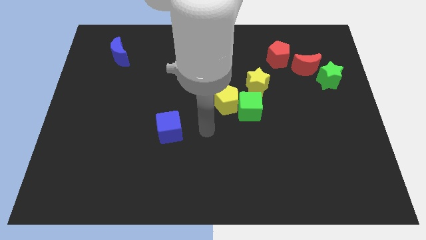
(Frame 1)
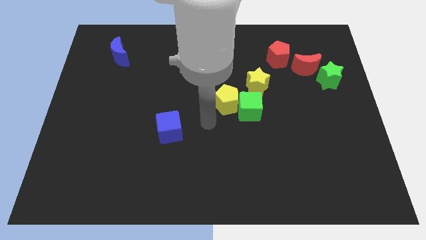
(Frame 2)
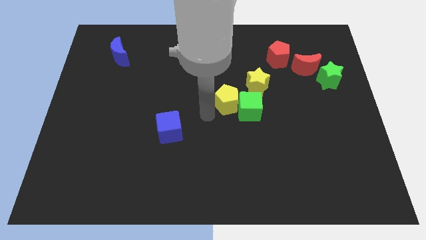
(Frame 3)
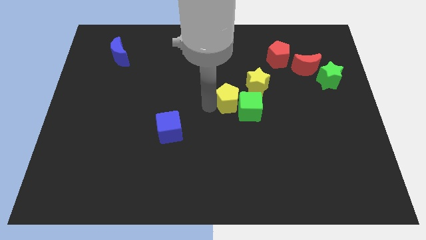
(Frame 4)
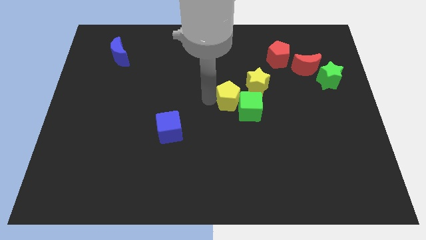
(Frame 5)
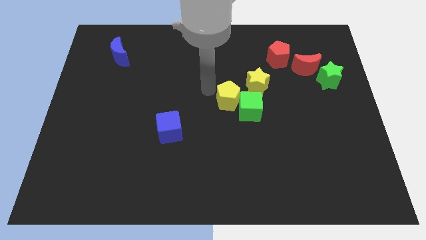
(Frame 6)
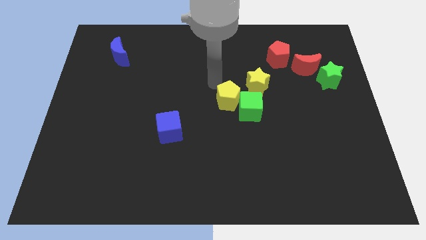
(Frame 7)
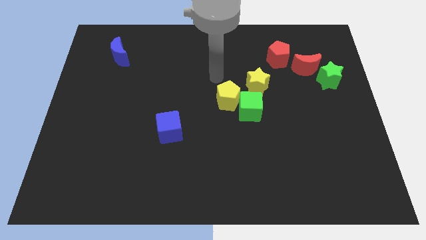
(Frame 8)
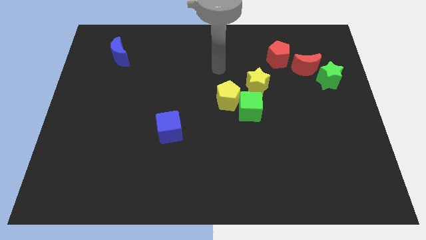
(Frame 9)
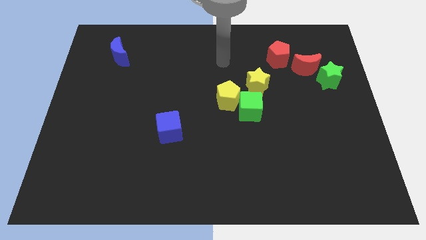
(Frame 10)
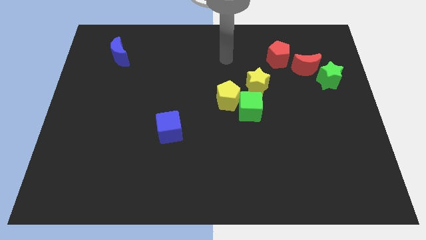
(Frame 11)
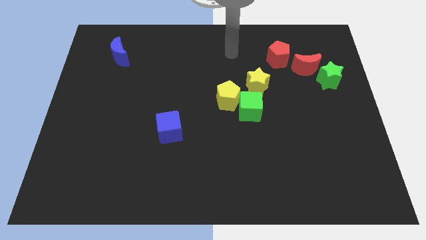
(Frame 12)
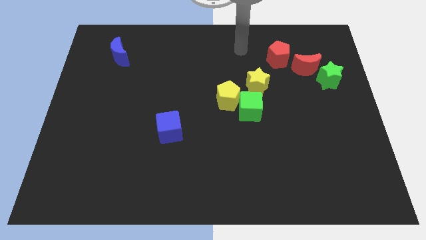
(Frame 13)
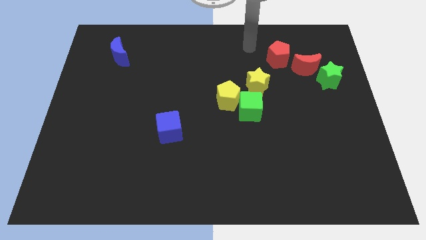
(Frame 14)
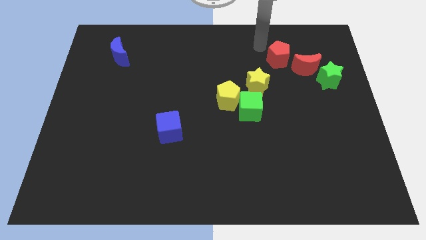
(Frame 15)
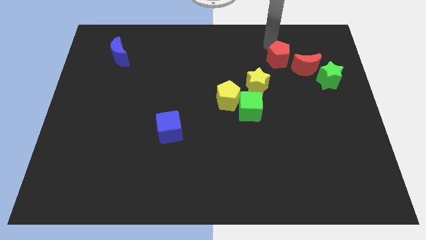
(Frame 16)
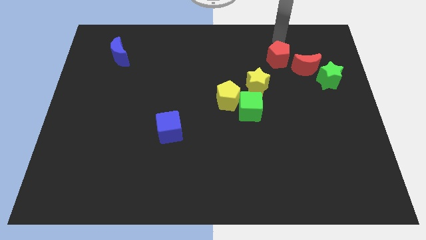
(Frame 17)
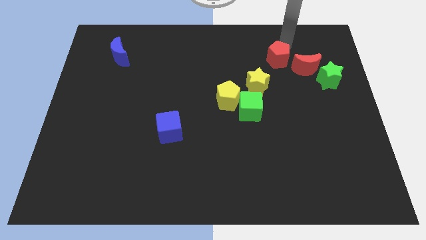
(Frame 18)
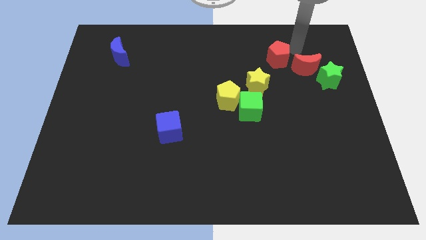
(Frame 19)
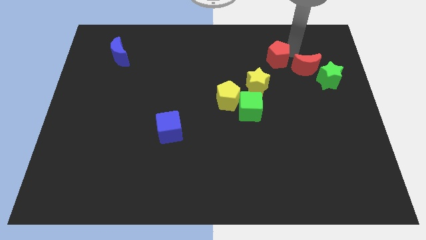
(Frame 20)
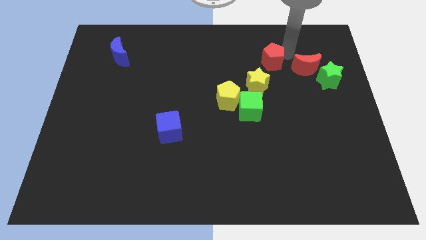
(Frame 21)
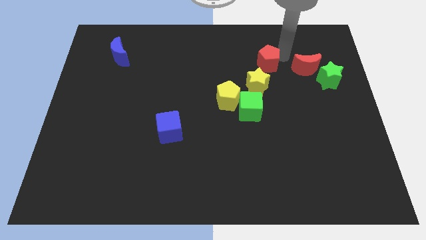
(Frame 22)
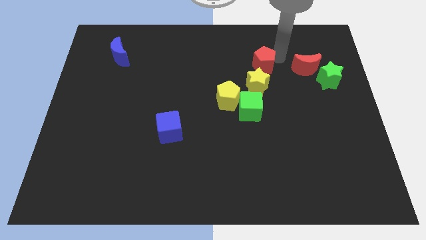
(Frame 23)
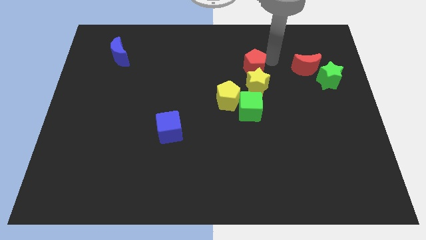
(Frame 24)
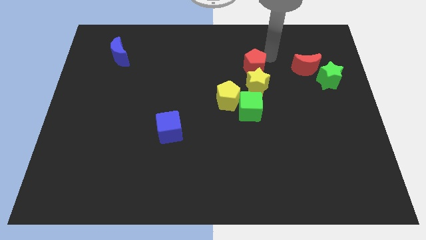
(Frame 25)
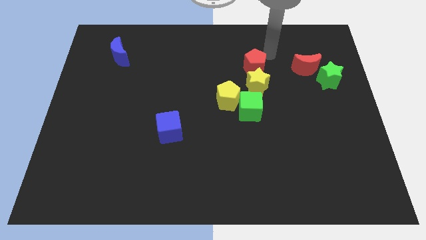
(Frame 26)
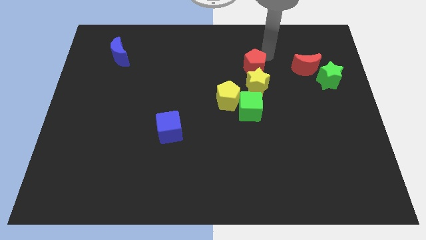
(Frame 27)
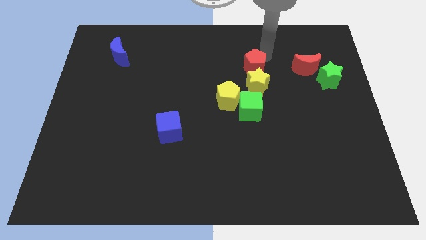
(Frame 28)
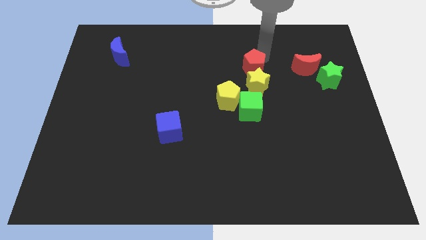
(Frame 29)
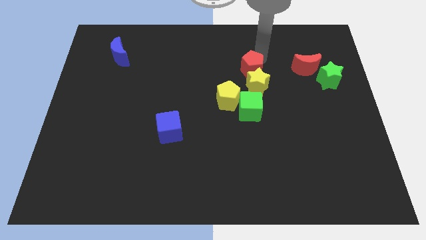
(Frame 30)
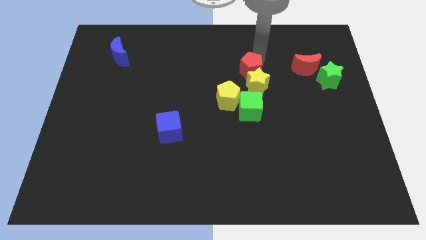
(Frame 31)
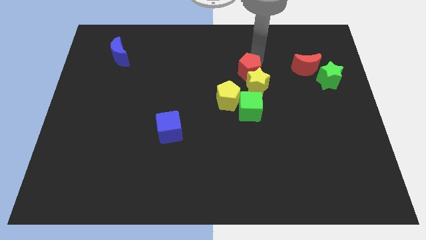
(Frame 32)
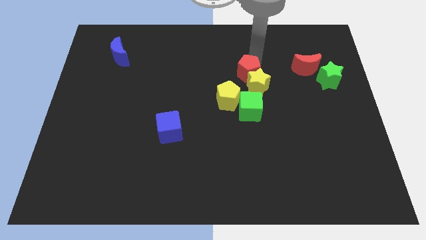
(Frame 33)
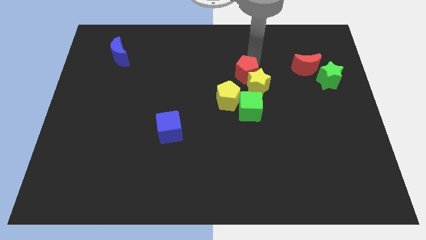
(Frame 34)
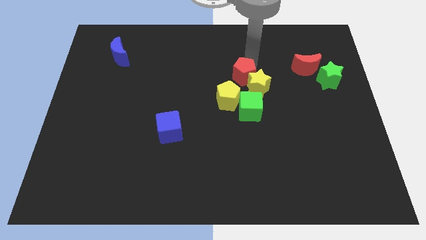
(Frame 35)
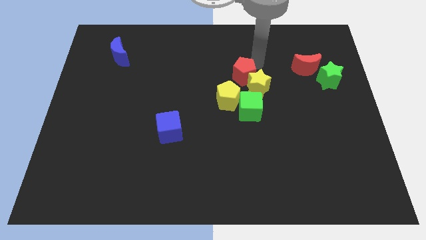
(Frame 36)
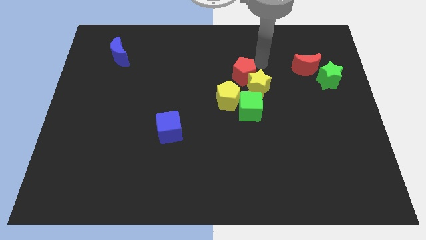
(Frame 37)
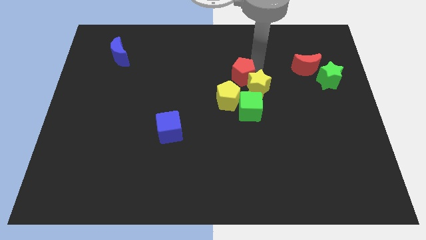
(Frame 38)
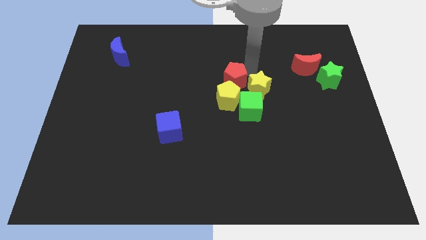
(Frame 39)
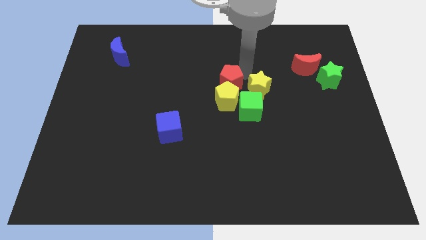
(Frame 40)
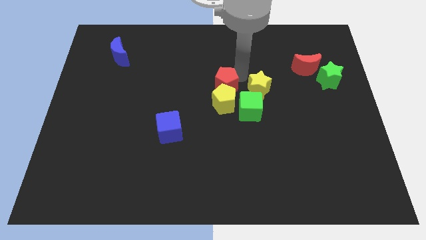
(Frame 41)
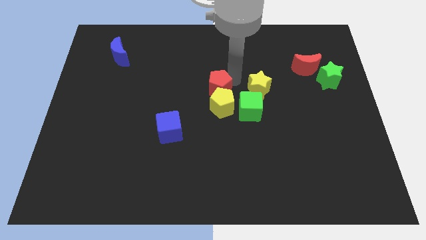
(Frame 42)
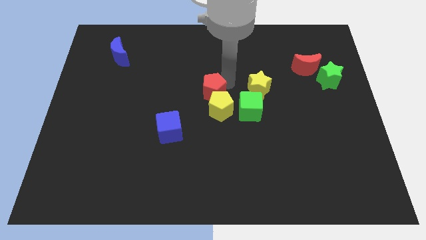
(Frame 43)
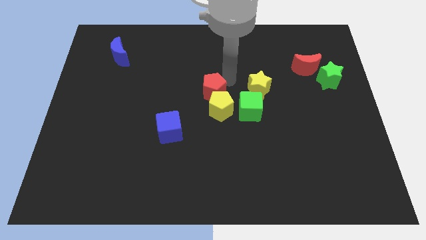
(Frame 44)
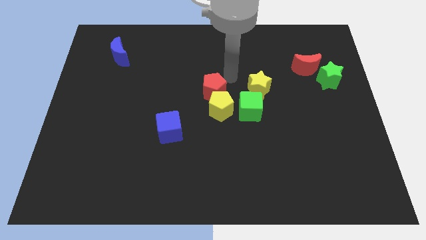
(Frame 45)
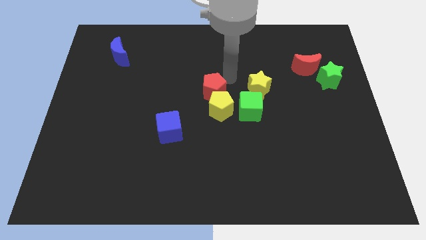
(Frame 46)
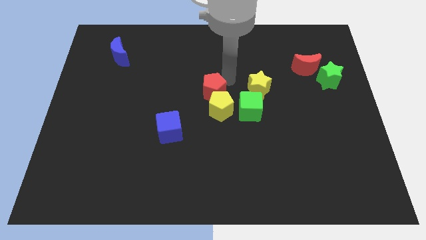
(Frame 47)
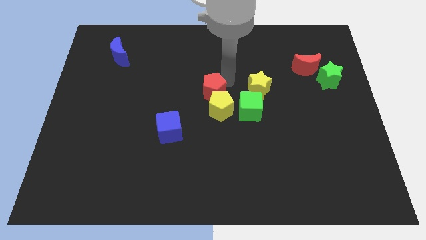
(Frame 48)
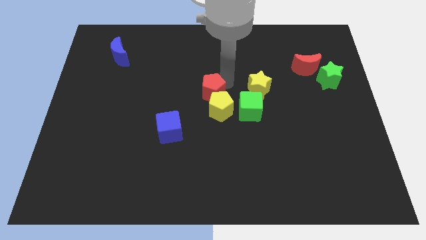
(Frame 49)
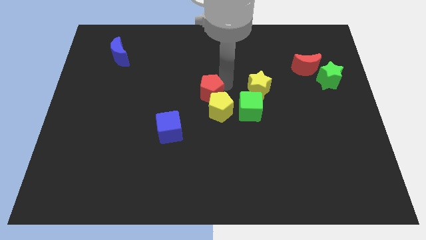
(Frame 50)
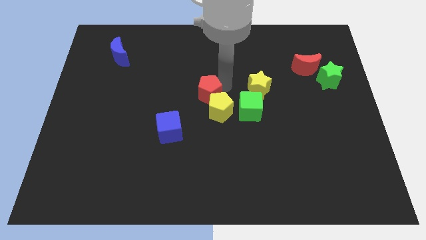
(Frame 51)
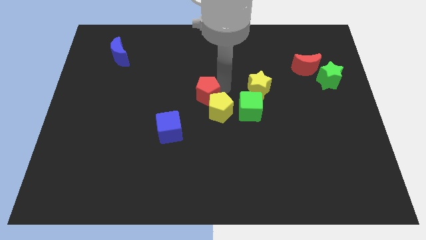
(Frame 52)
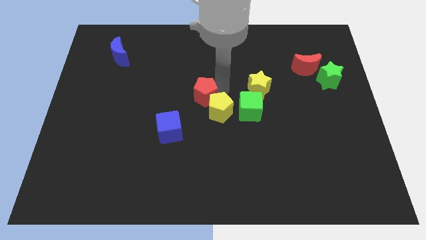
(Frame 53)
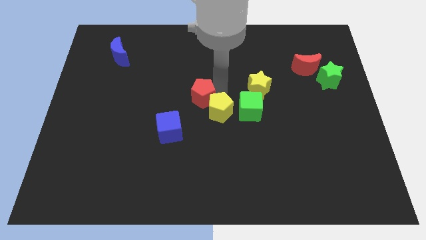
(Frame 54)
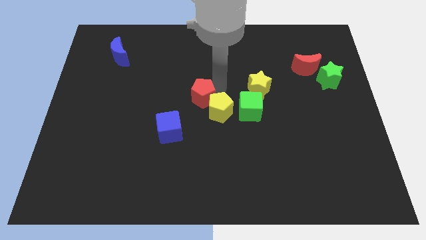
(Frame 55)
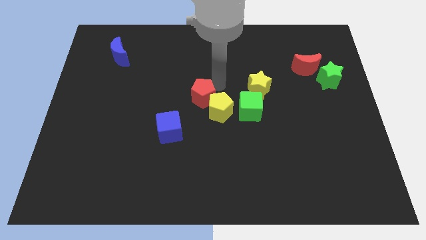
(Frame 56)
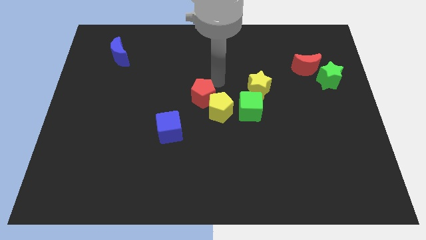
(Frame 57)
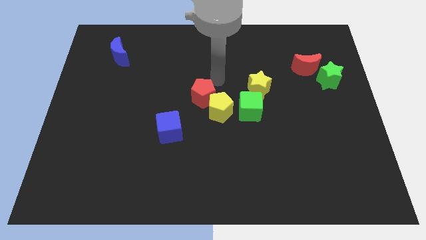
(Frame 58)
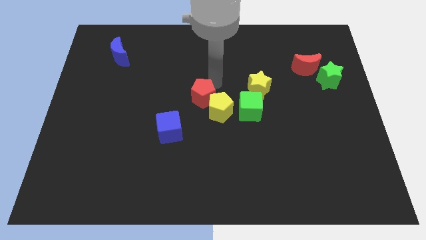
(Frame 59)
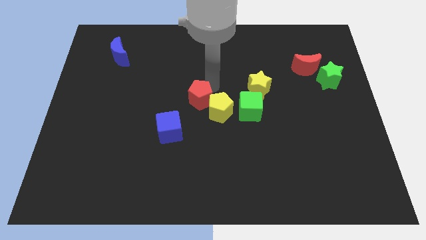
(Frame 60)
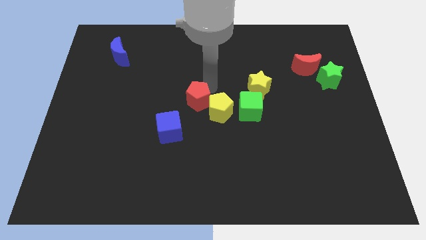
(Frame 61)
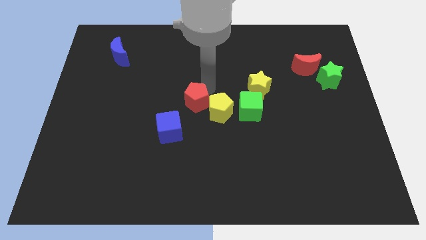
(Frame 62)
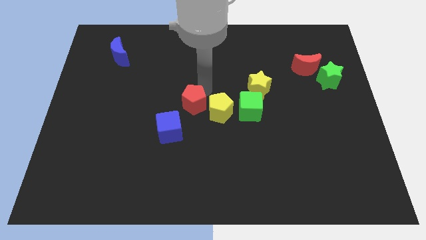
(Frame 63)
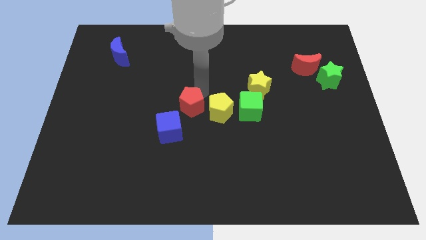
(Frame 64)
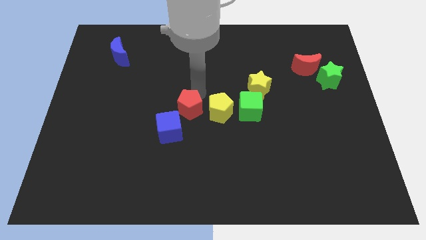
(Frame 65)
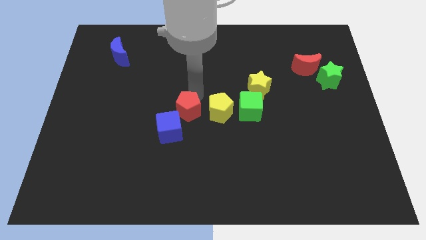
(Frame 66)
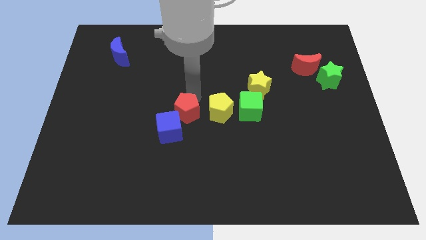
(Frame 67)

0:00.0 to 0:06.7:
push the red pentagon to the blue cube

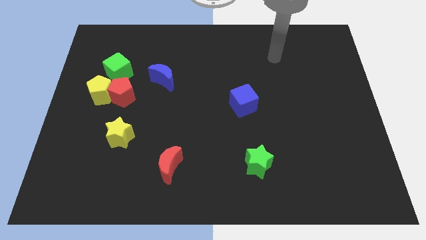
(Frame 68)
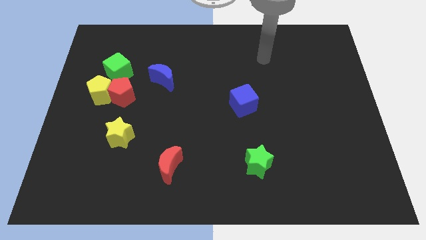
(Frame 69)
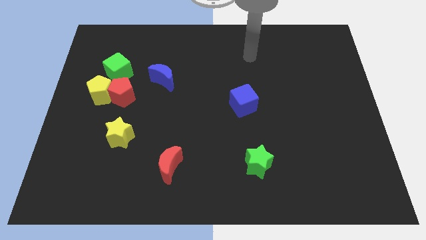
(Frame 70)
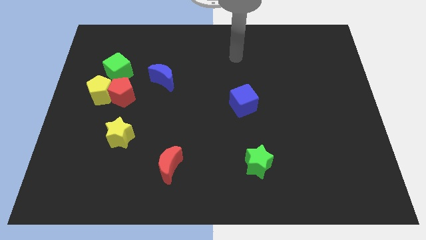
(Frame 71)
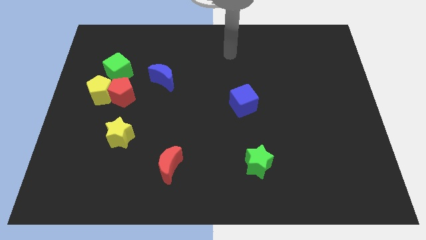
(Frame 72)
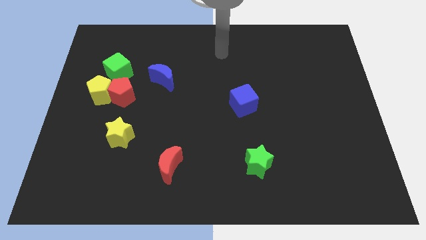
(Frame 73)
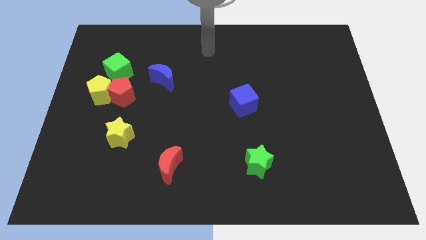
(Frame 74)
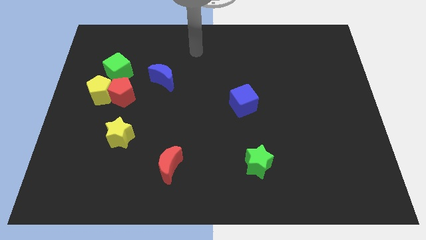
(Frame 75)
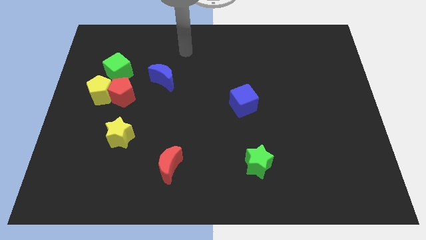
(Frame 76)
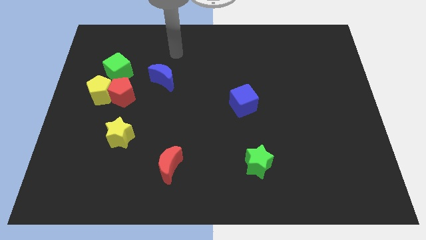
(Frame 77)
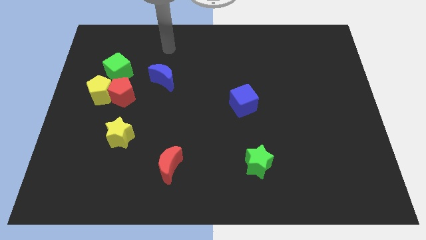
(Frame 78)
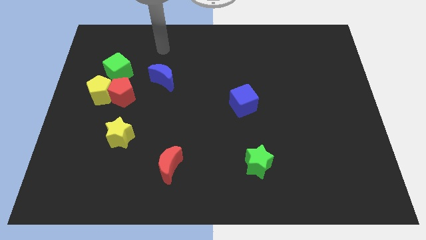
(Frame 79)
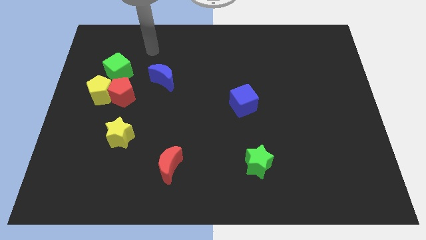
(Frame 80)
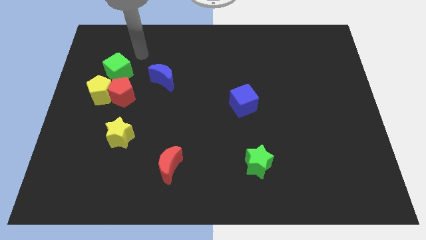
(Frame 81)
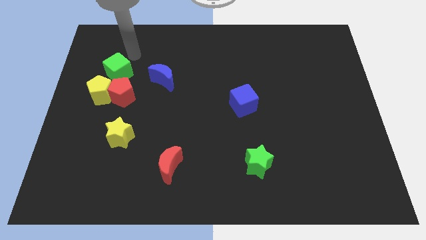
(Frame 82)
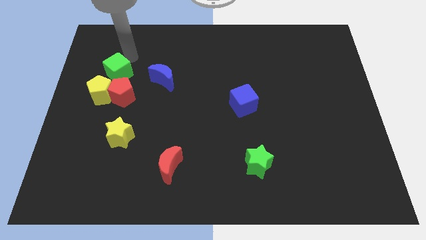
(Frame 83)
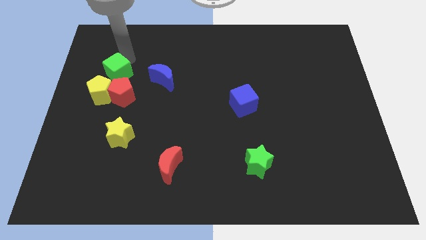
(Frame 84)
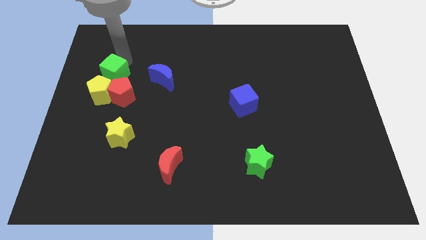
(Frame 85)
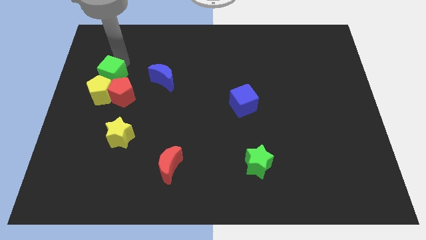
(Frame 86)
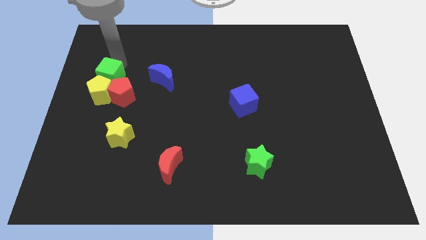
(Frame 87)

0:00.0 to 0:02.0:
slide the green cube to the yellow pentagon
